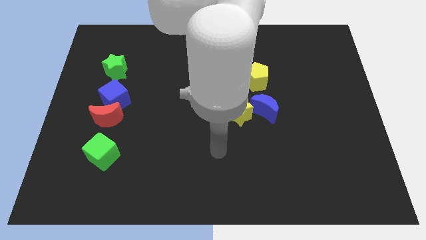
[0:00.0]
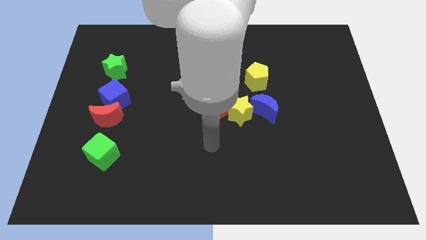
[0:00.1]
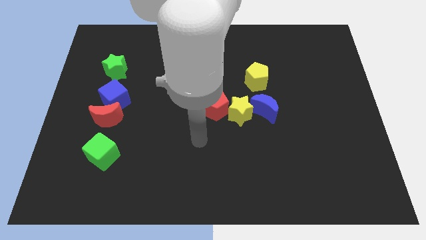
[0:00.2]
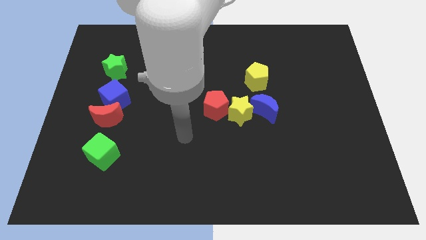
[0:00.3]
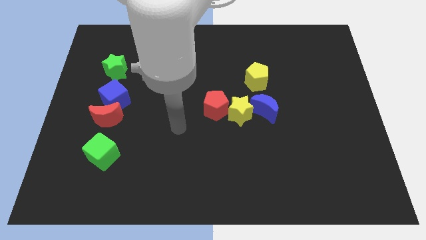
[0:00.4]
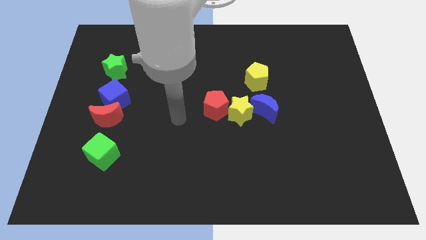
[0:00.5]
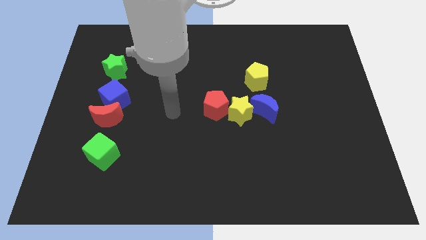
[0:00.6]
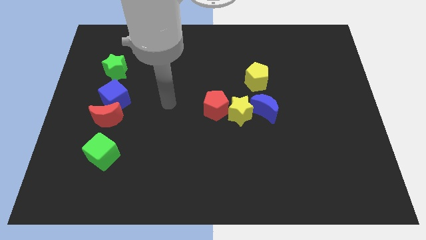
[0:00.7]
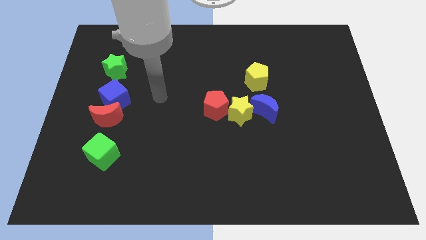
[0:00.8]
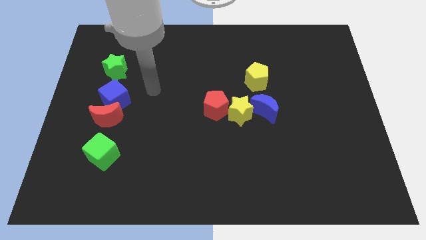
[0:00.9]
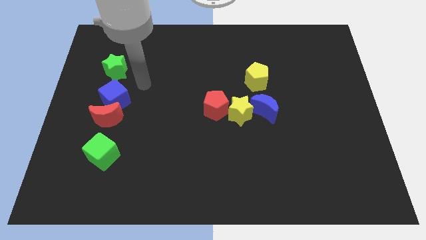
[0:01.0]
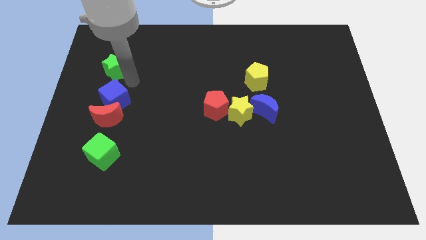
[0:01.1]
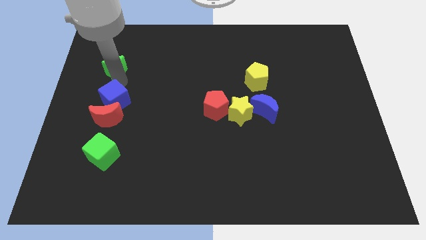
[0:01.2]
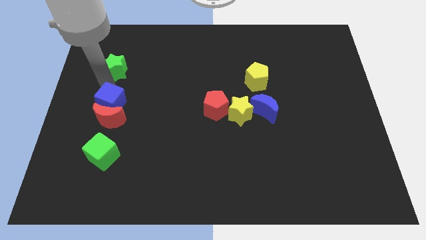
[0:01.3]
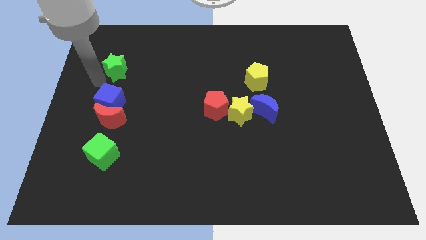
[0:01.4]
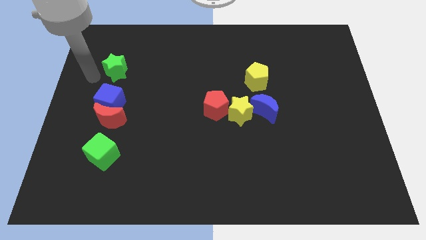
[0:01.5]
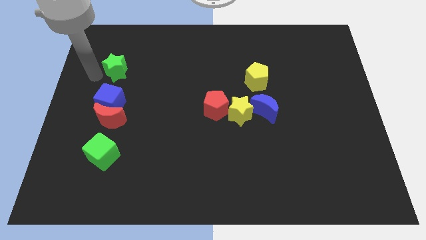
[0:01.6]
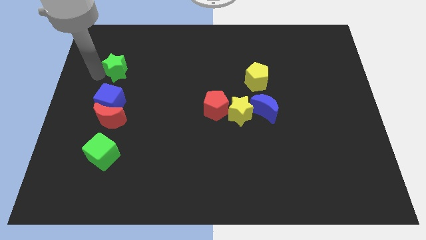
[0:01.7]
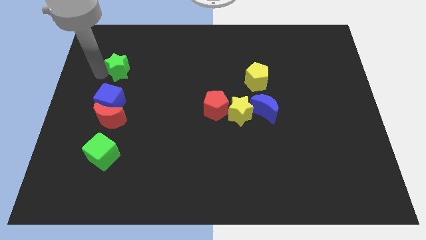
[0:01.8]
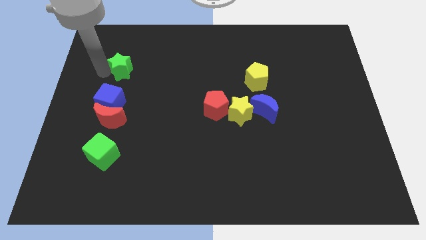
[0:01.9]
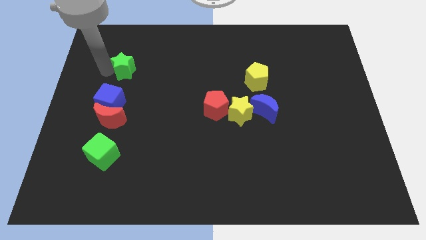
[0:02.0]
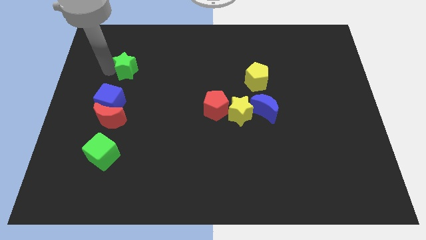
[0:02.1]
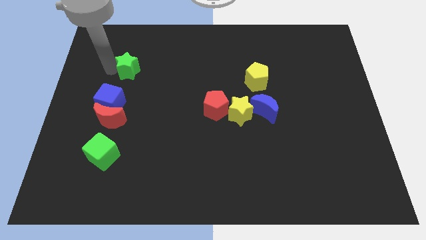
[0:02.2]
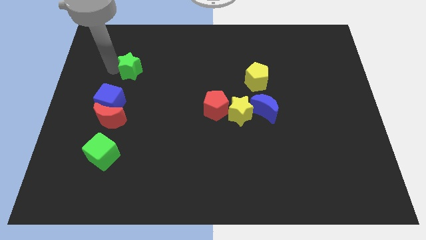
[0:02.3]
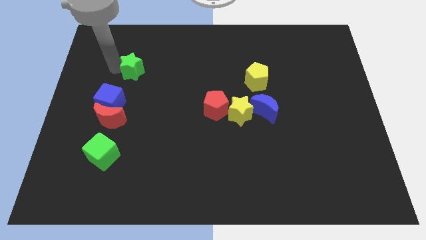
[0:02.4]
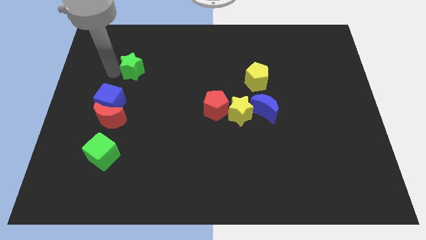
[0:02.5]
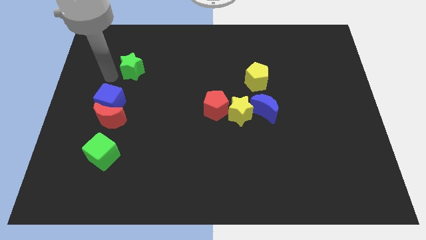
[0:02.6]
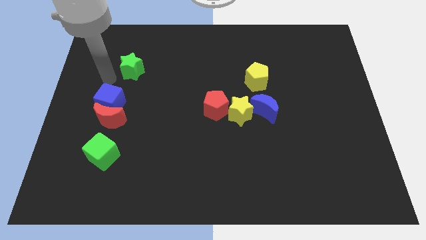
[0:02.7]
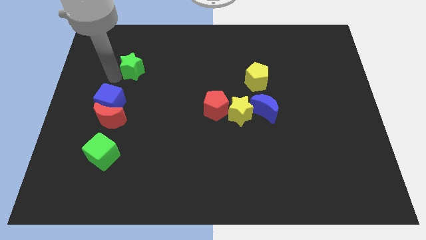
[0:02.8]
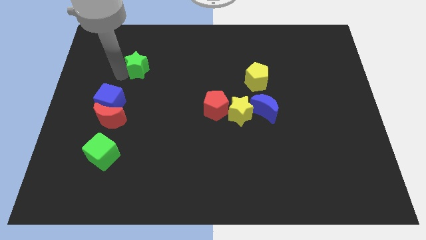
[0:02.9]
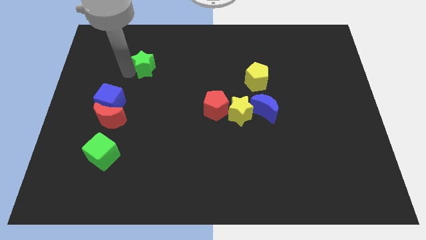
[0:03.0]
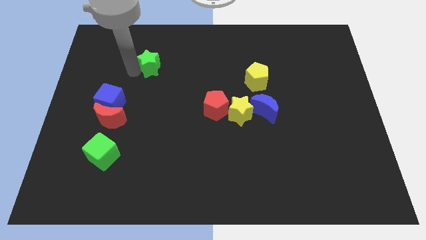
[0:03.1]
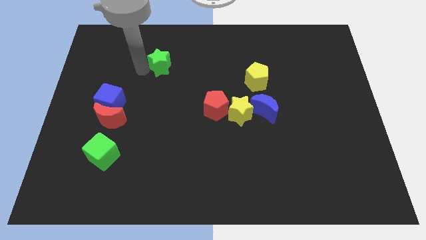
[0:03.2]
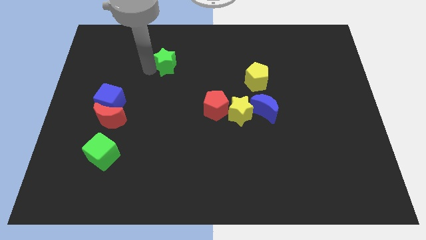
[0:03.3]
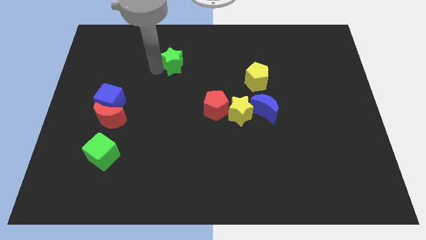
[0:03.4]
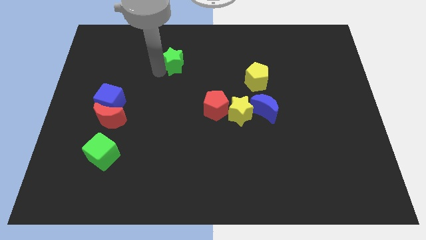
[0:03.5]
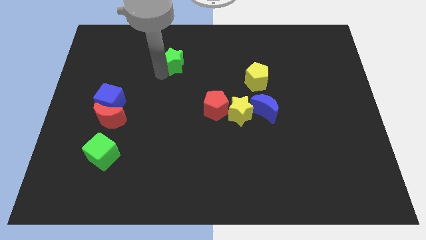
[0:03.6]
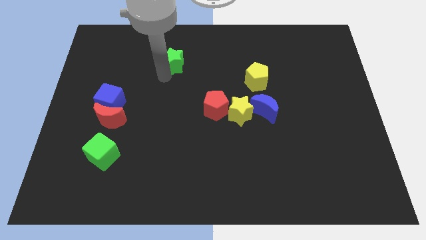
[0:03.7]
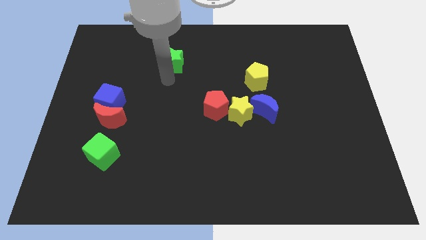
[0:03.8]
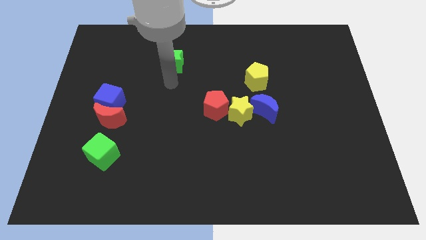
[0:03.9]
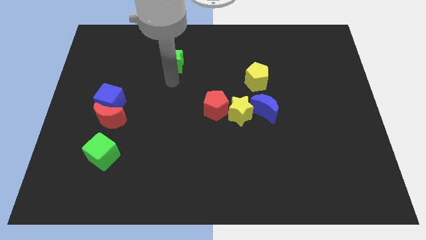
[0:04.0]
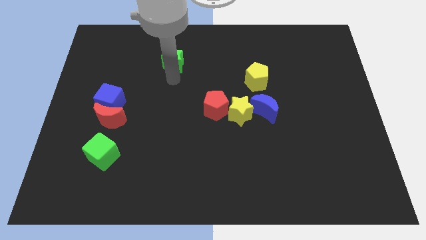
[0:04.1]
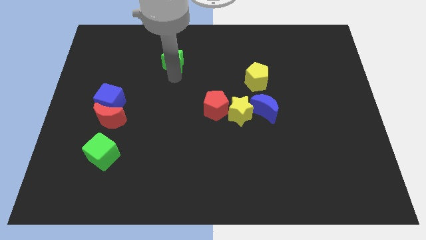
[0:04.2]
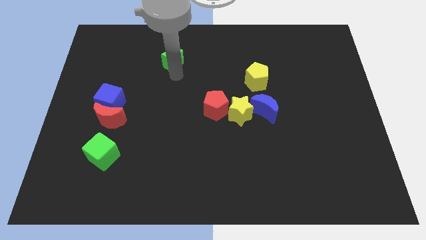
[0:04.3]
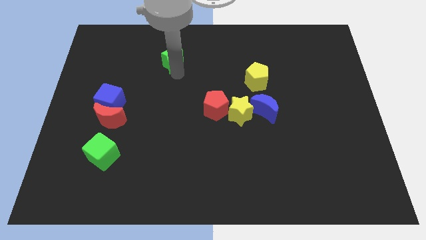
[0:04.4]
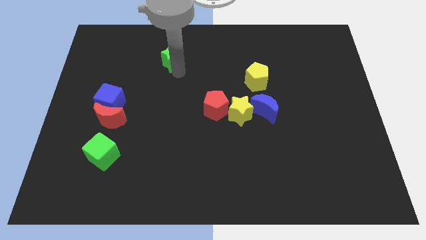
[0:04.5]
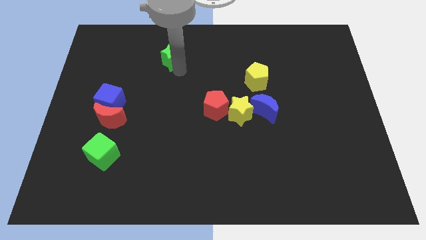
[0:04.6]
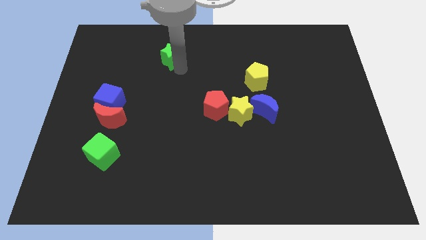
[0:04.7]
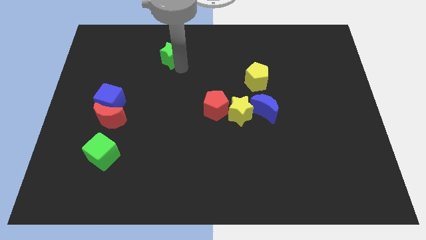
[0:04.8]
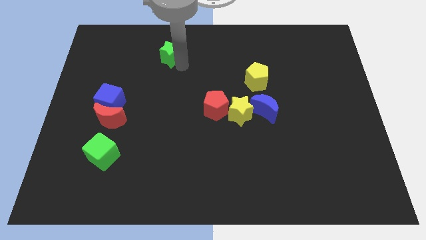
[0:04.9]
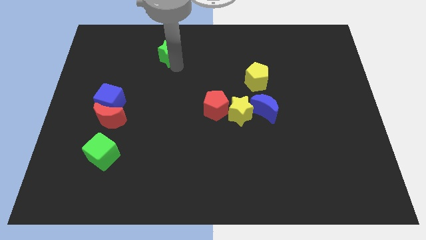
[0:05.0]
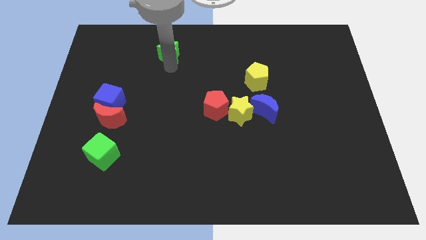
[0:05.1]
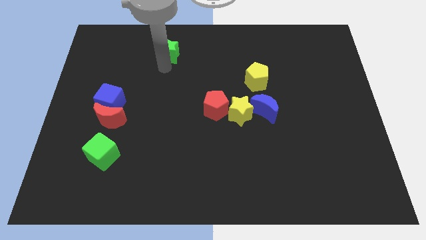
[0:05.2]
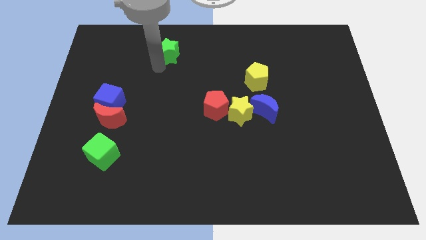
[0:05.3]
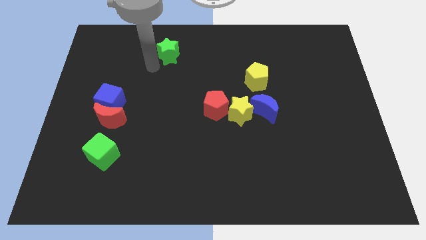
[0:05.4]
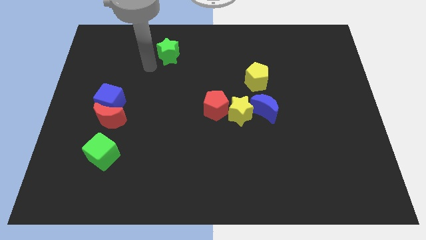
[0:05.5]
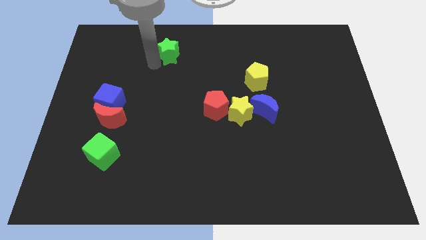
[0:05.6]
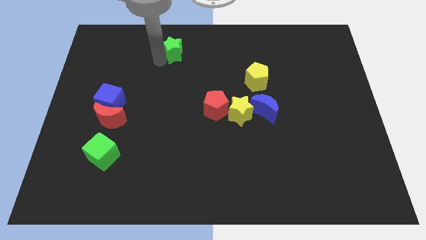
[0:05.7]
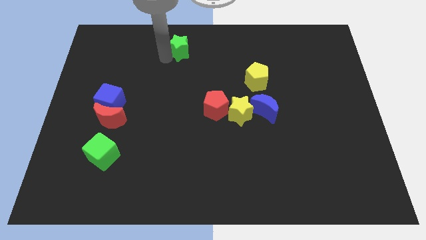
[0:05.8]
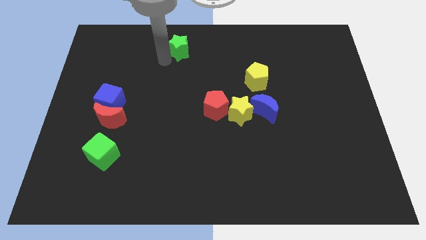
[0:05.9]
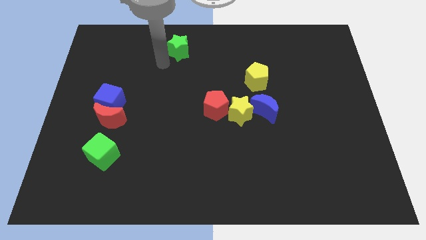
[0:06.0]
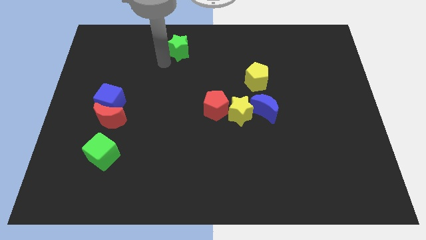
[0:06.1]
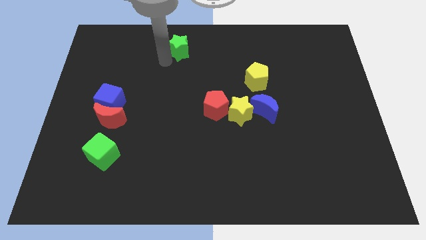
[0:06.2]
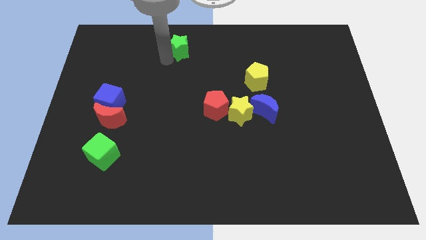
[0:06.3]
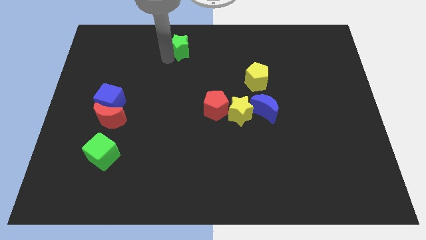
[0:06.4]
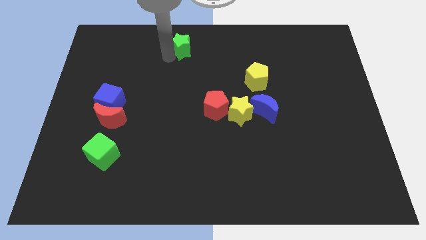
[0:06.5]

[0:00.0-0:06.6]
slide the green star to the top side
